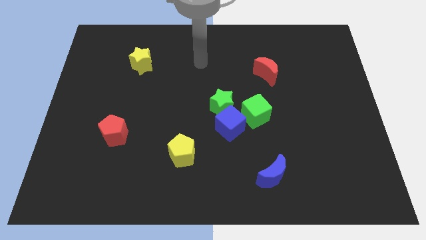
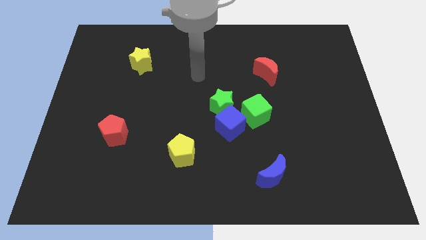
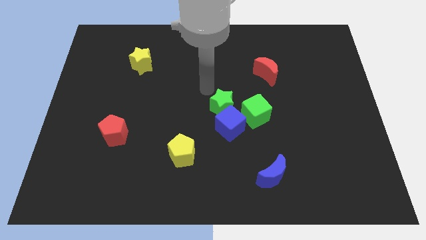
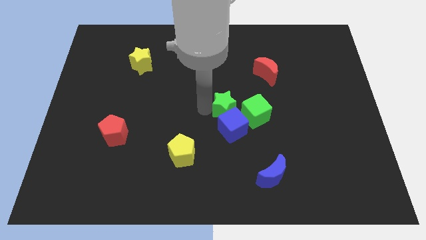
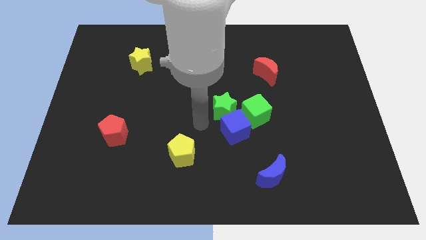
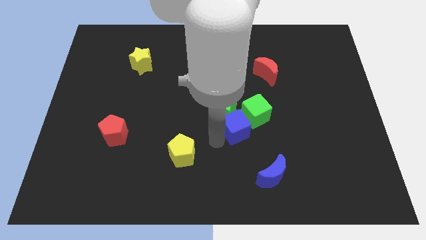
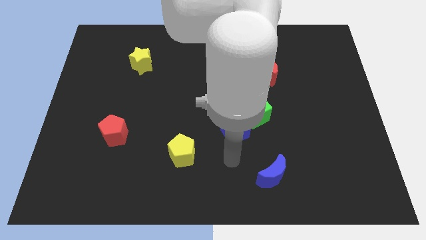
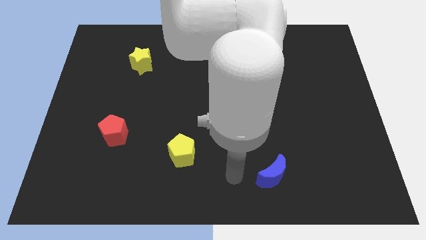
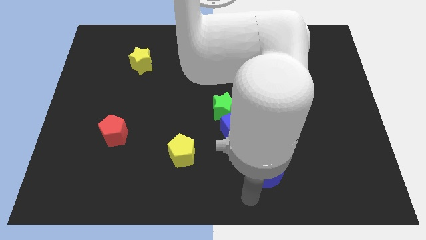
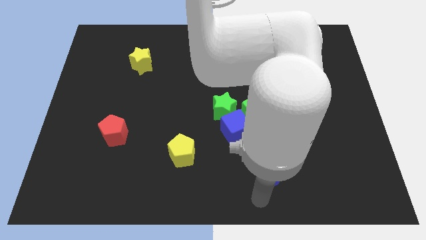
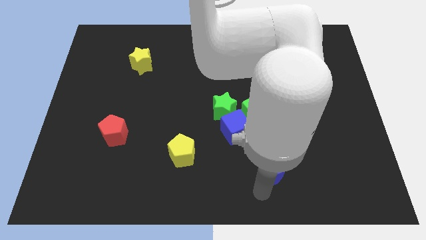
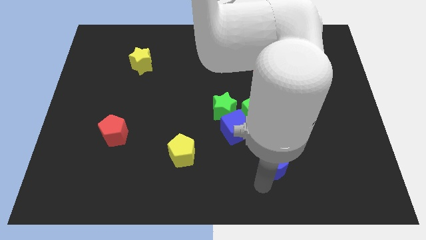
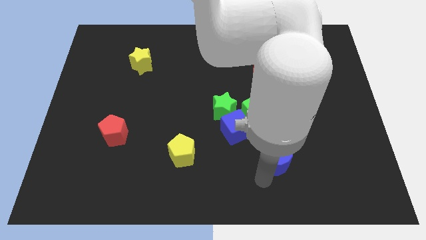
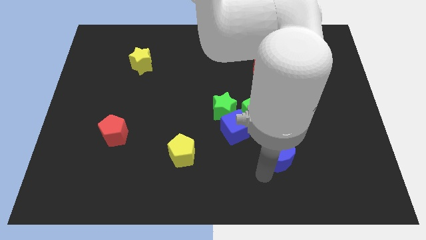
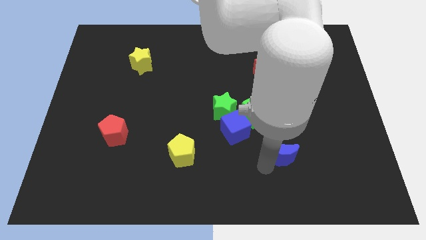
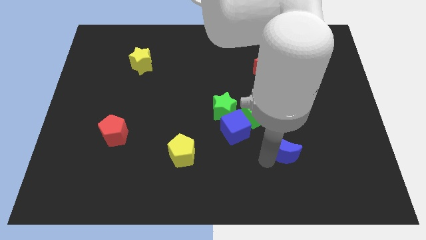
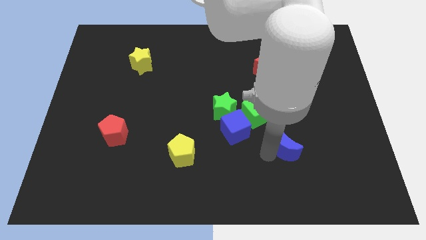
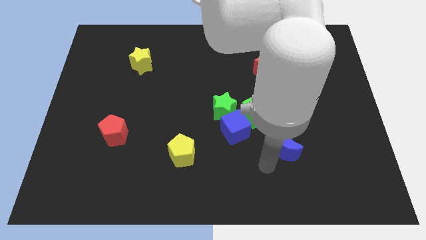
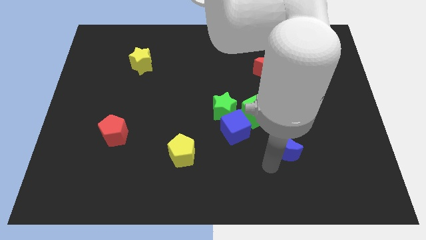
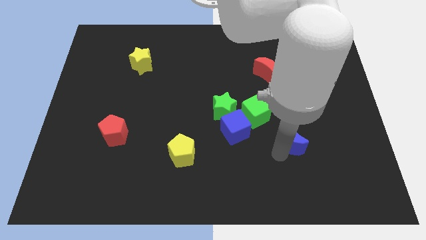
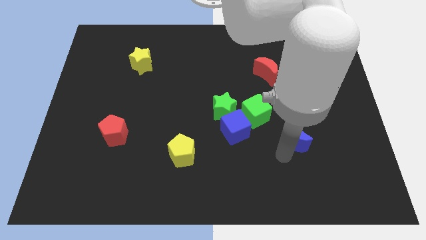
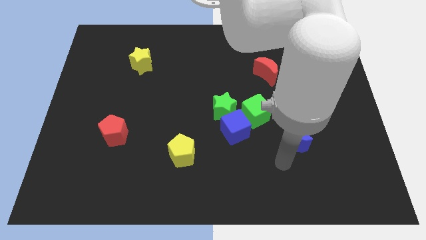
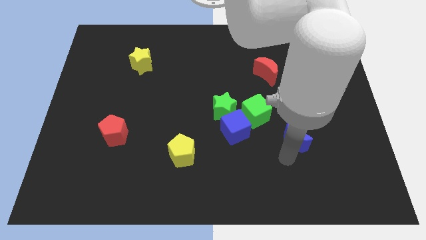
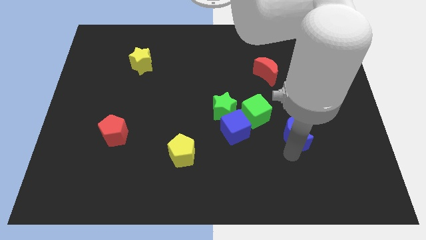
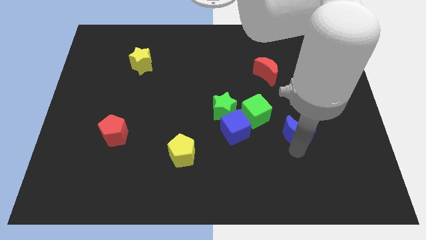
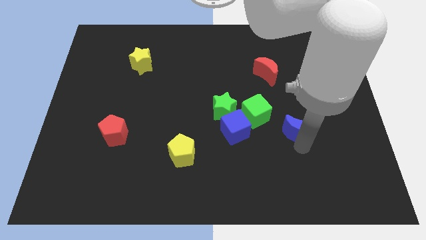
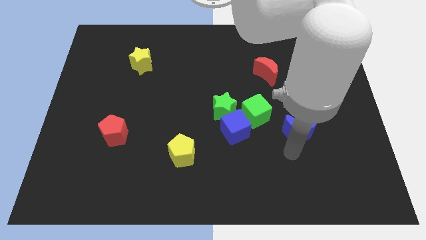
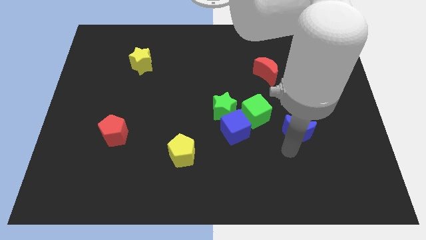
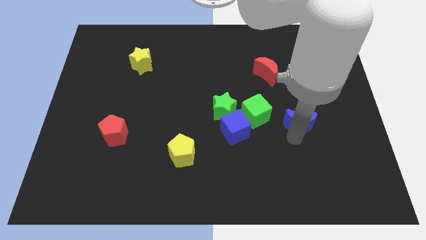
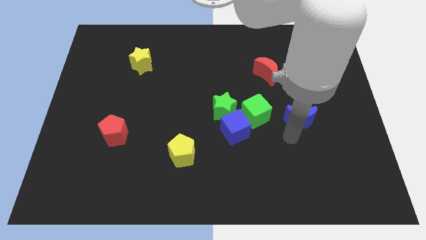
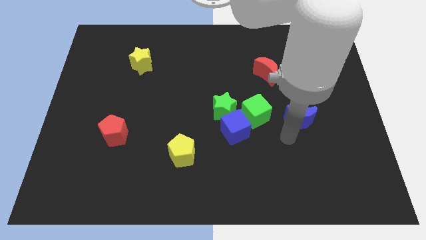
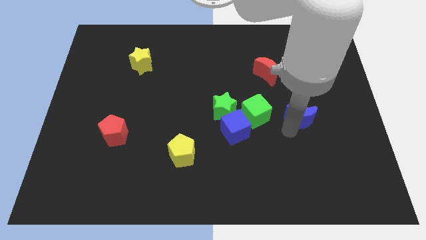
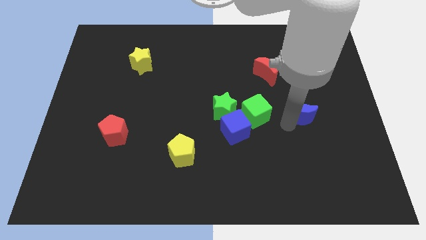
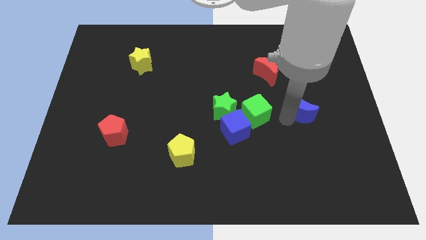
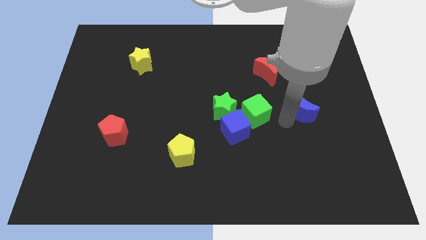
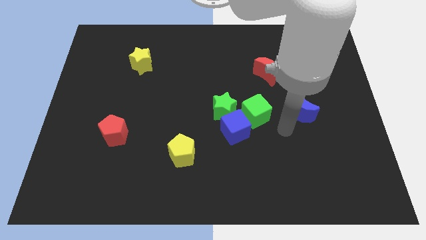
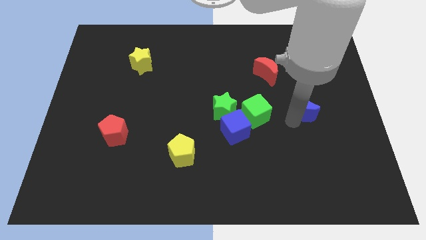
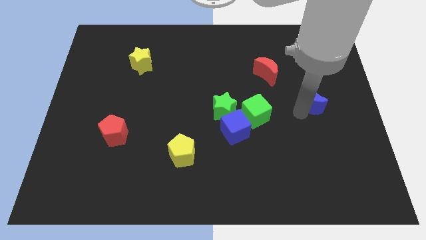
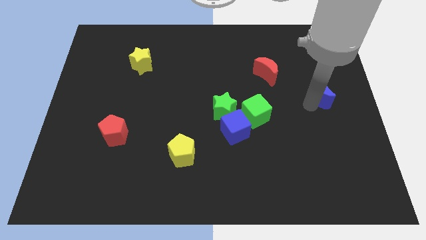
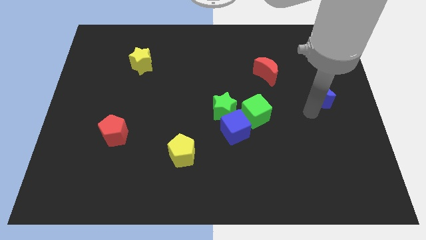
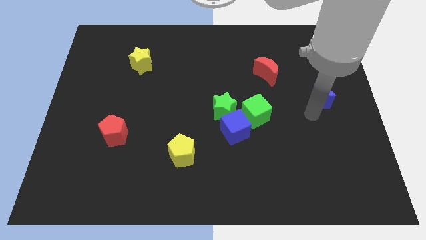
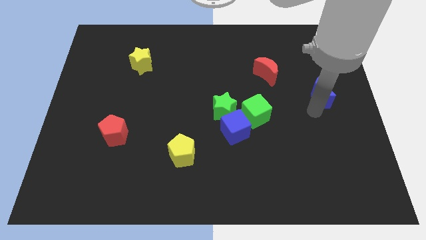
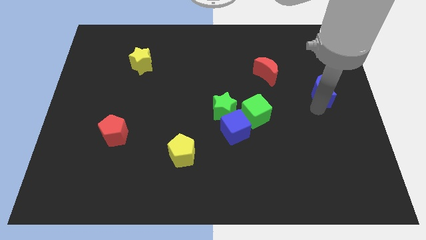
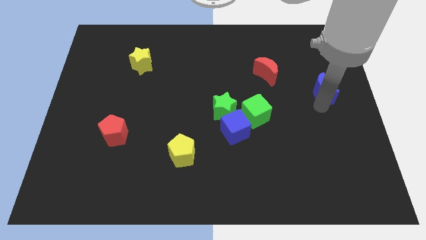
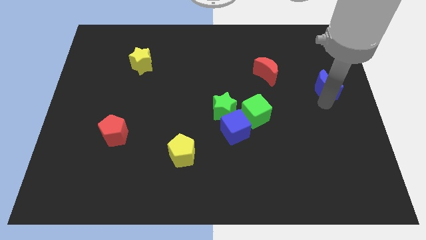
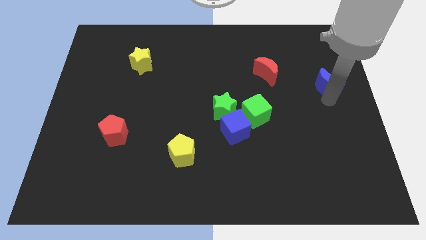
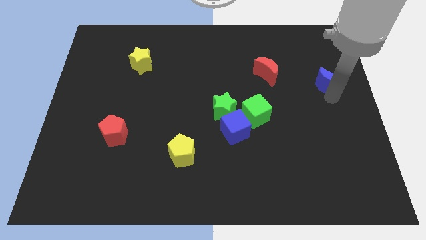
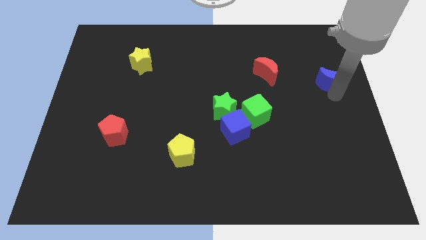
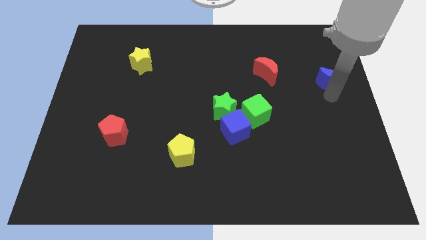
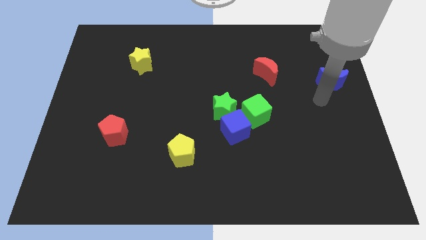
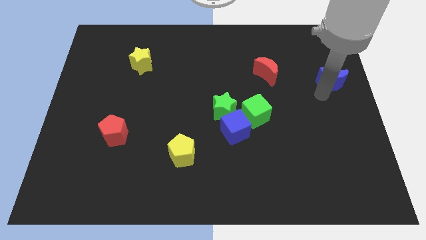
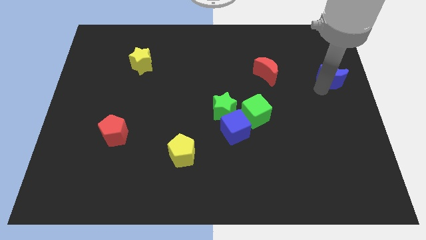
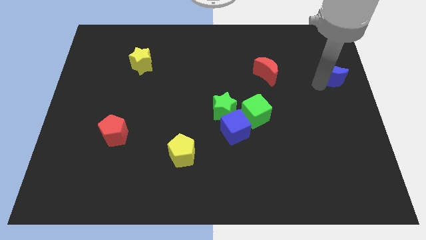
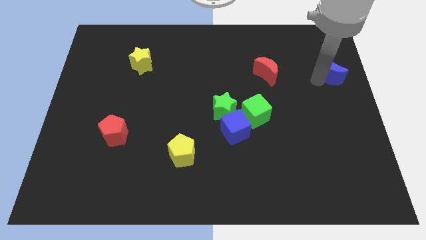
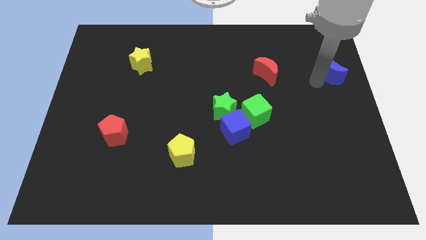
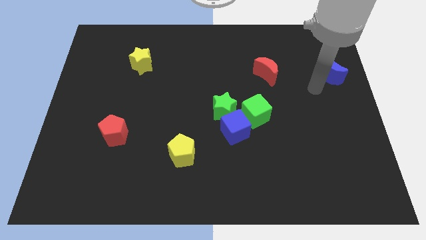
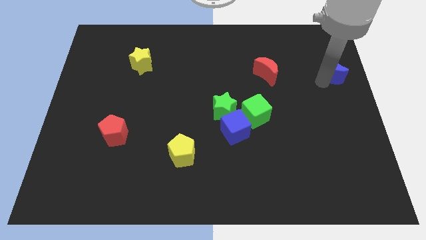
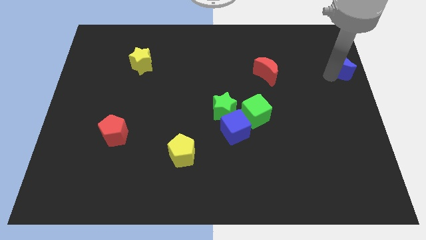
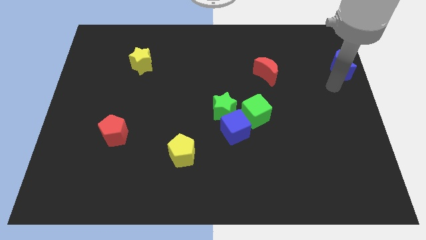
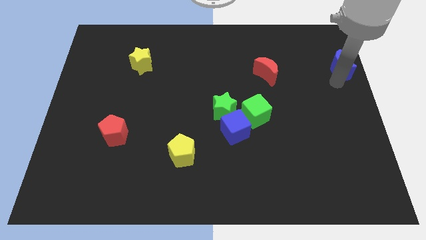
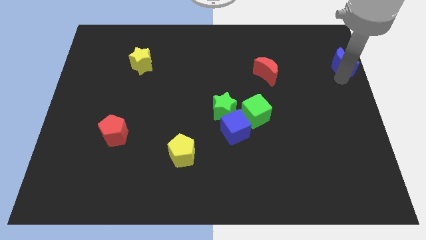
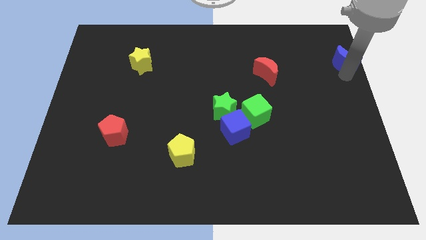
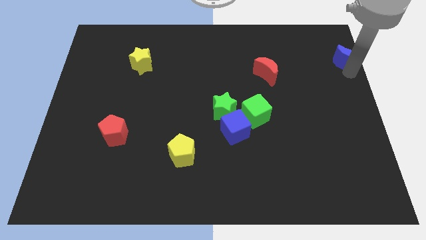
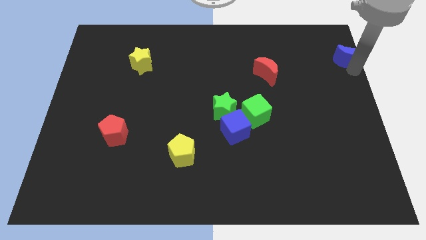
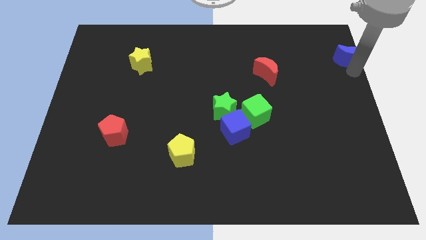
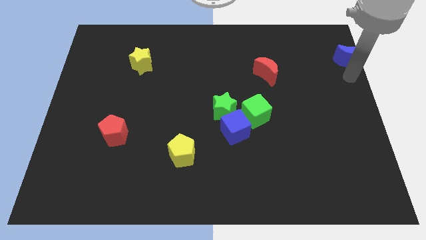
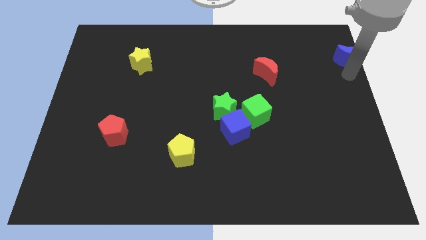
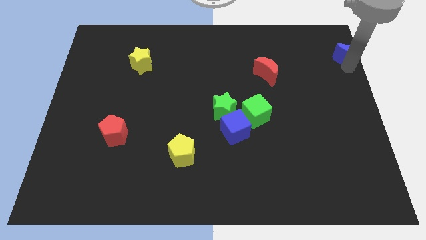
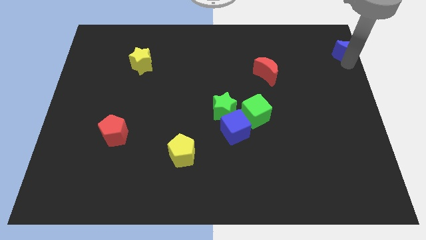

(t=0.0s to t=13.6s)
move the blue moon to the top right

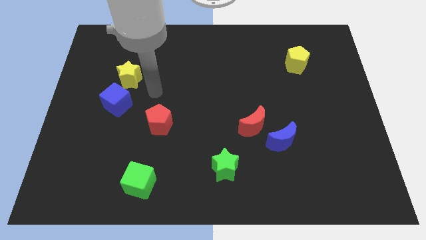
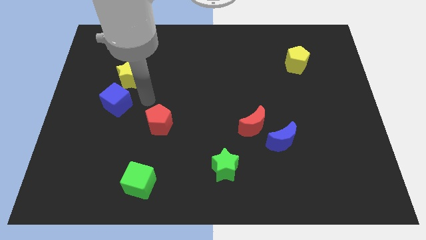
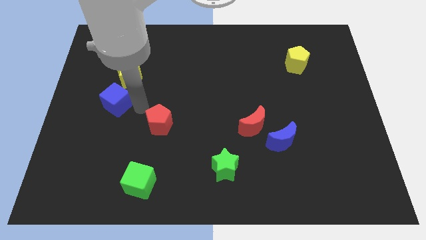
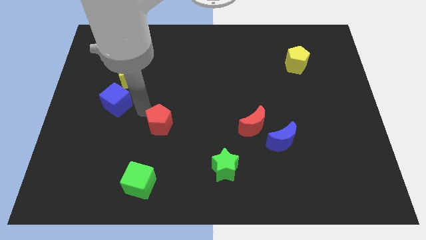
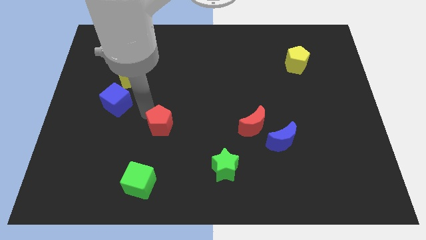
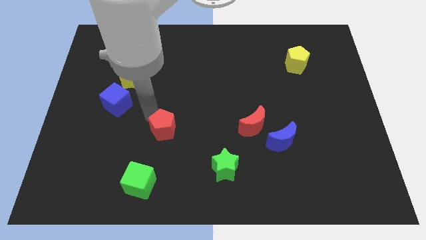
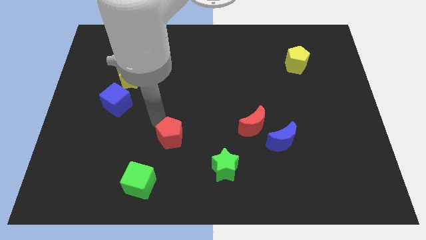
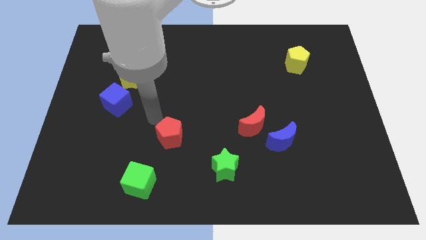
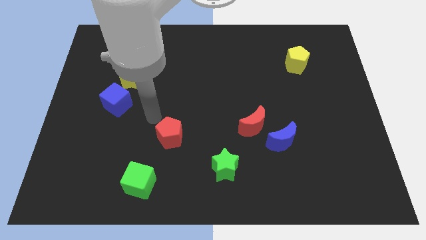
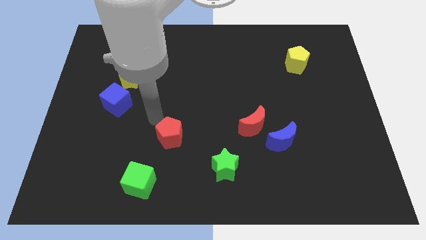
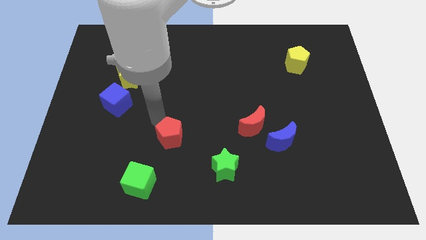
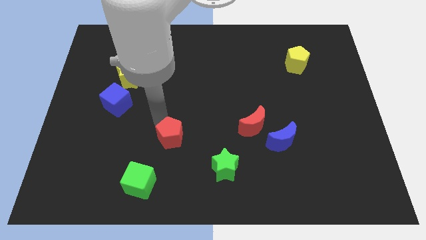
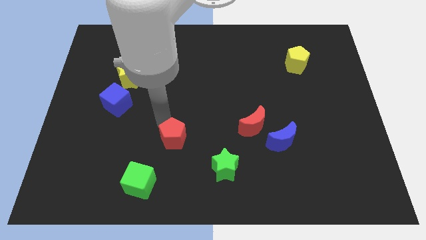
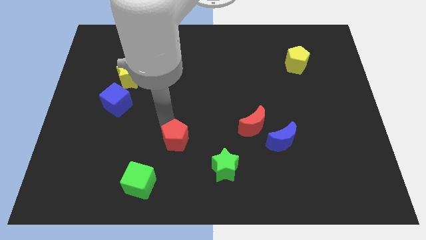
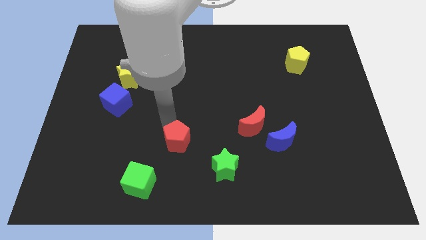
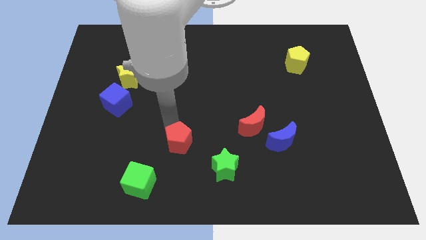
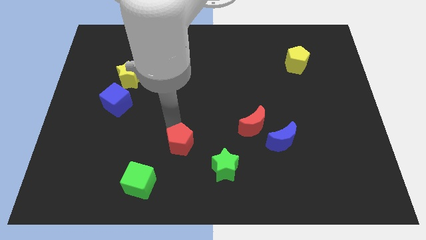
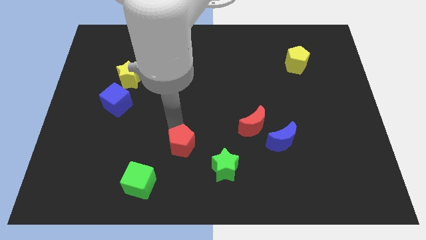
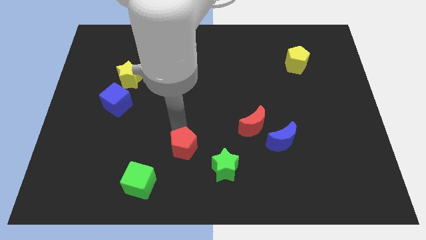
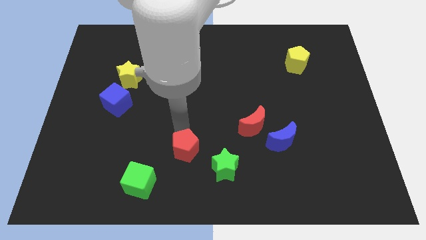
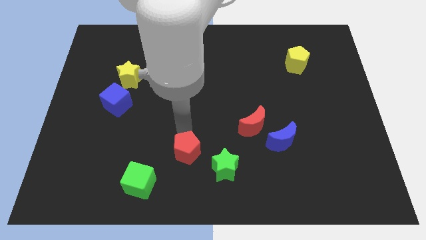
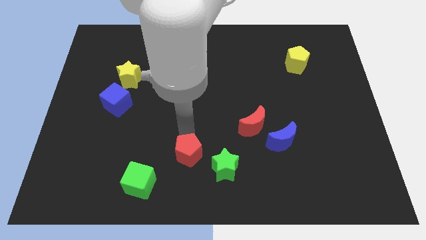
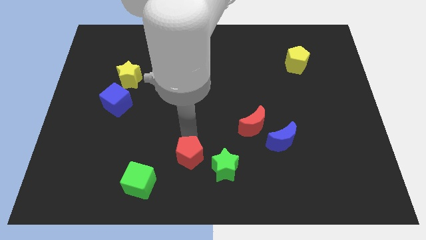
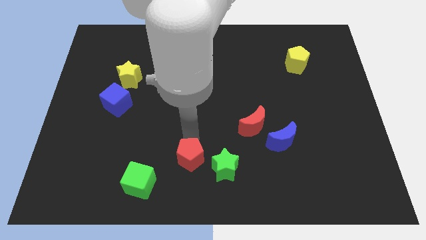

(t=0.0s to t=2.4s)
slide the red pentagon to the bottom
